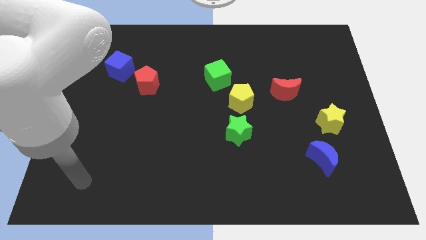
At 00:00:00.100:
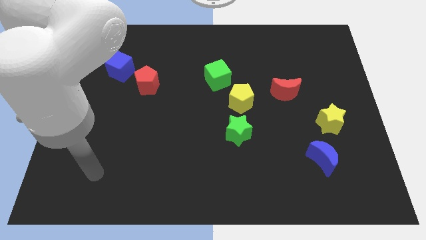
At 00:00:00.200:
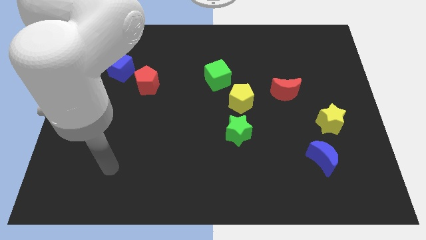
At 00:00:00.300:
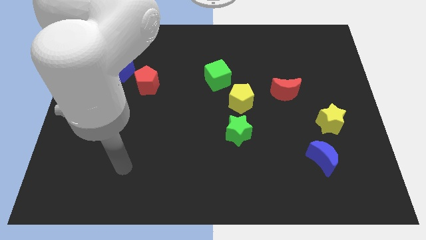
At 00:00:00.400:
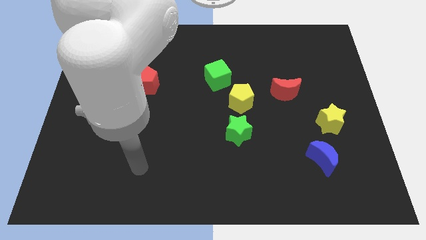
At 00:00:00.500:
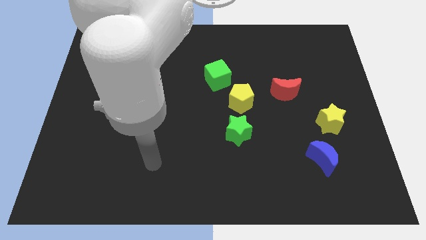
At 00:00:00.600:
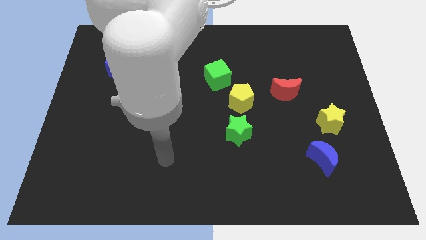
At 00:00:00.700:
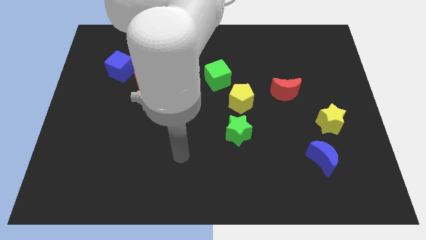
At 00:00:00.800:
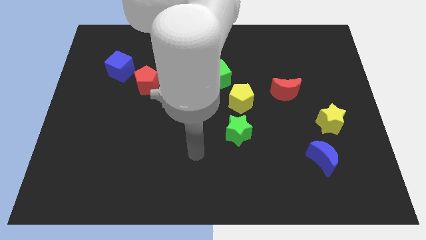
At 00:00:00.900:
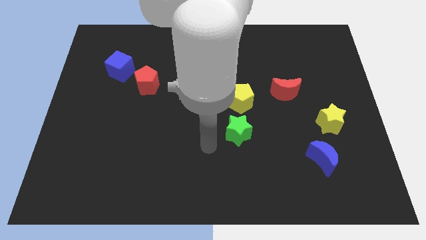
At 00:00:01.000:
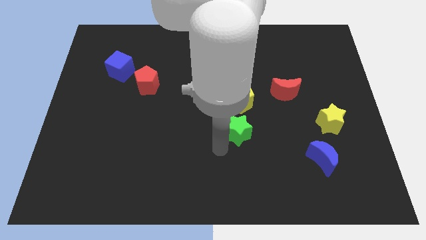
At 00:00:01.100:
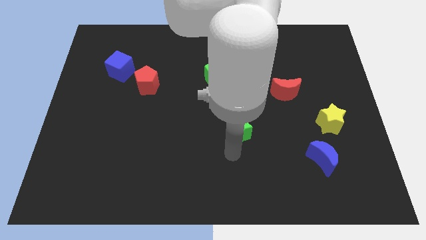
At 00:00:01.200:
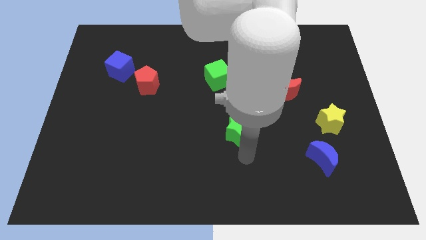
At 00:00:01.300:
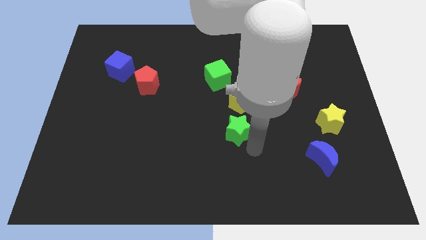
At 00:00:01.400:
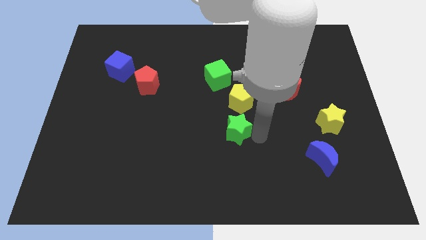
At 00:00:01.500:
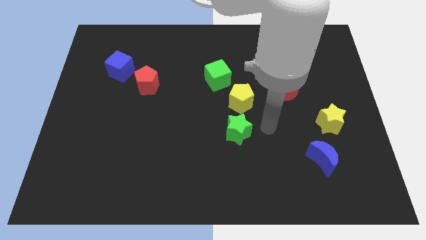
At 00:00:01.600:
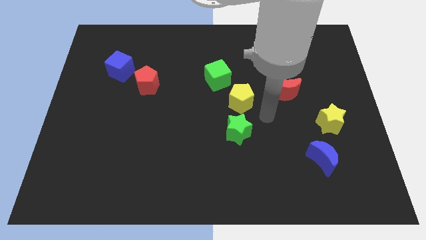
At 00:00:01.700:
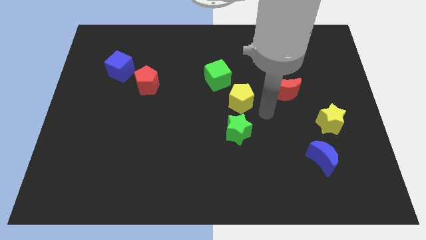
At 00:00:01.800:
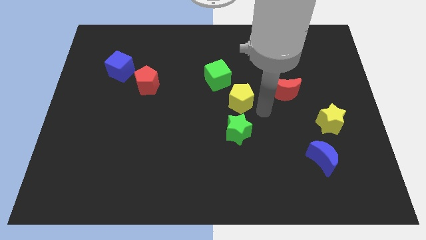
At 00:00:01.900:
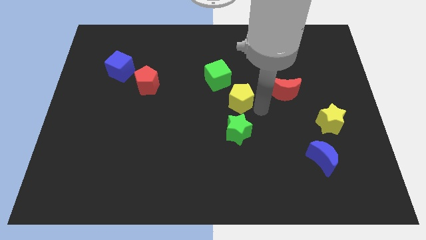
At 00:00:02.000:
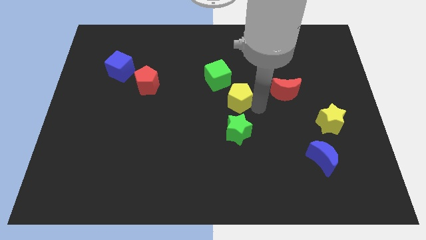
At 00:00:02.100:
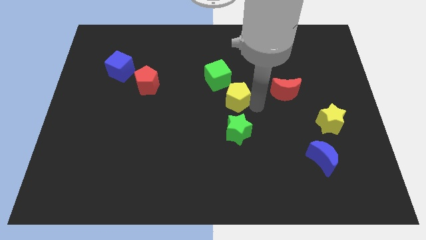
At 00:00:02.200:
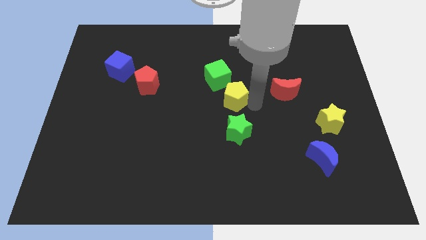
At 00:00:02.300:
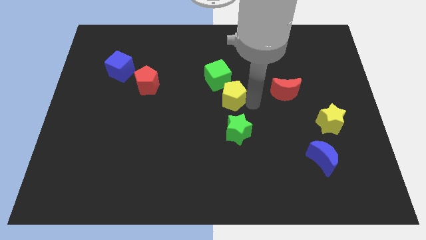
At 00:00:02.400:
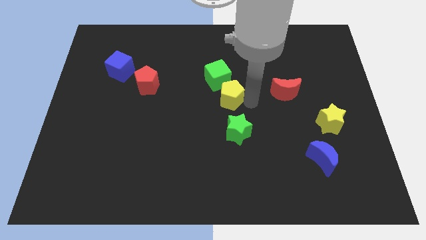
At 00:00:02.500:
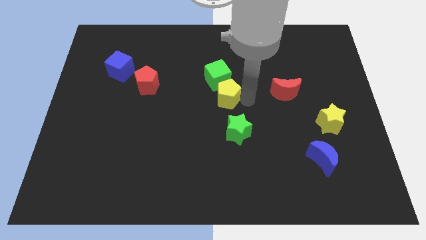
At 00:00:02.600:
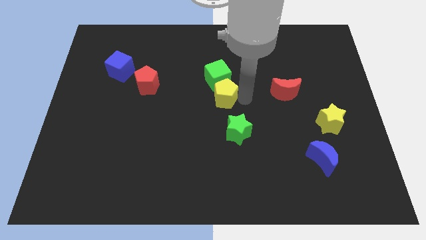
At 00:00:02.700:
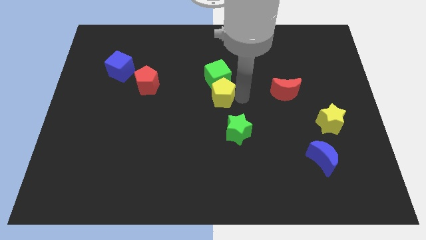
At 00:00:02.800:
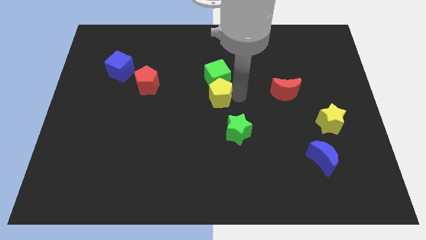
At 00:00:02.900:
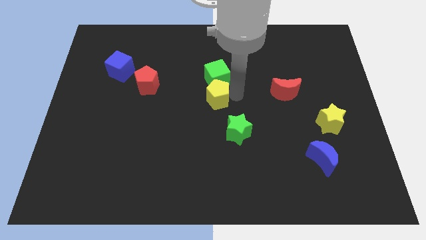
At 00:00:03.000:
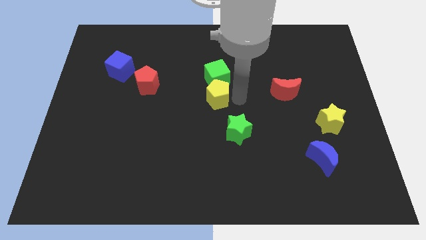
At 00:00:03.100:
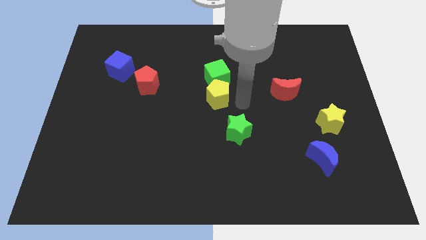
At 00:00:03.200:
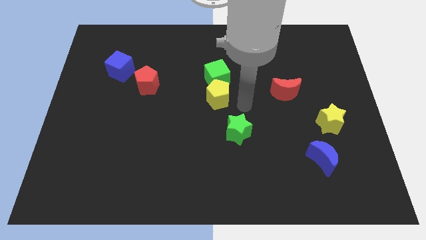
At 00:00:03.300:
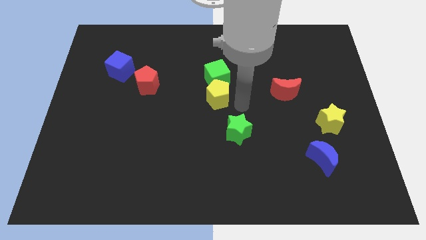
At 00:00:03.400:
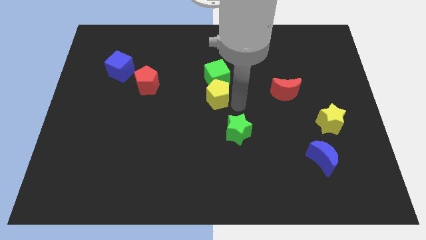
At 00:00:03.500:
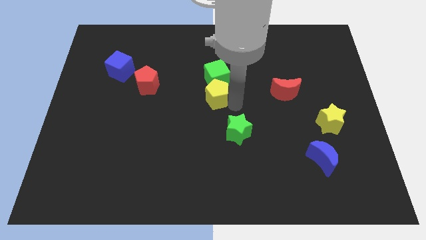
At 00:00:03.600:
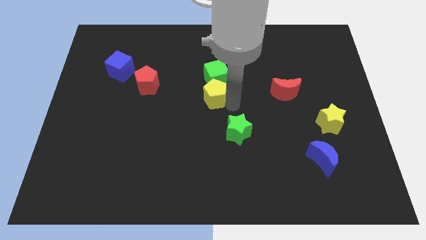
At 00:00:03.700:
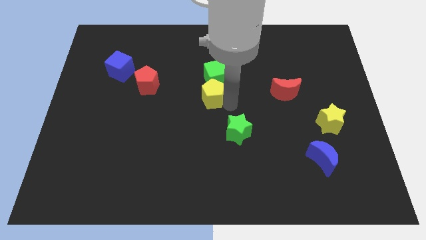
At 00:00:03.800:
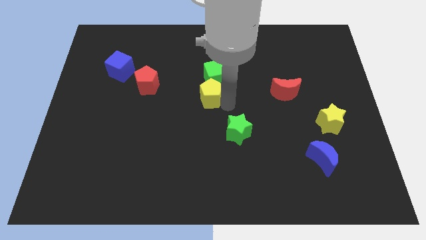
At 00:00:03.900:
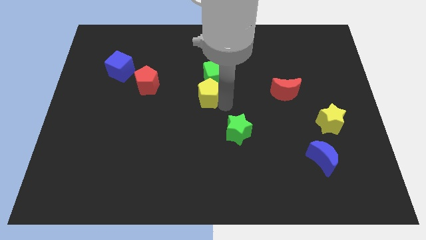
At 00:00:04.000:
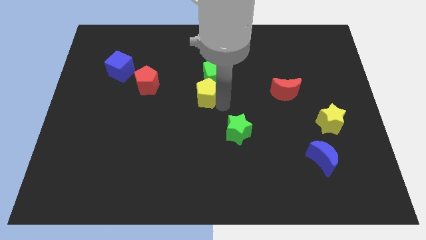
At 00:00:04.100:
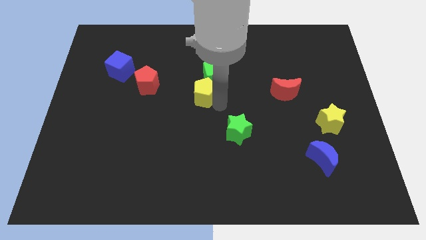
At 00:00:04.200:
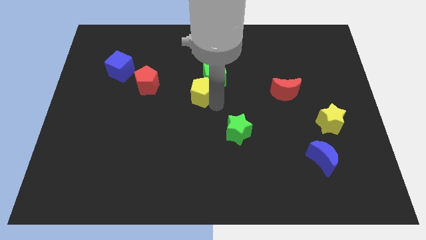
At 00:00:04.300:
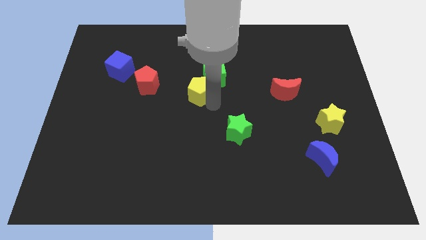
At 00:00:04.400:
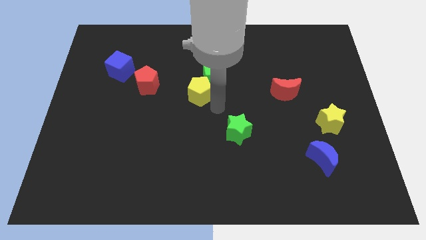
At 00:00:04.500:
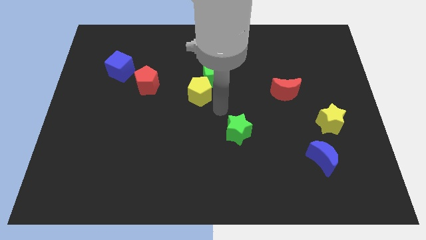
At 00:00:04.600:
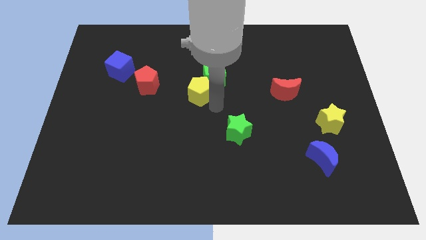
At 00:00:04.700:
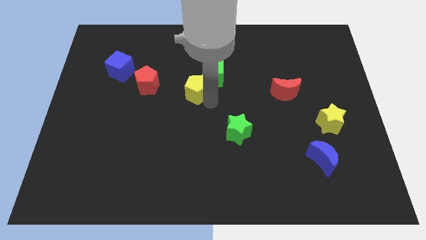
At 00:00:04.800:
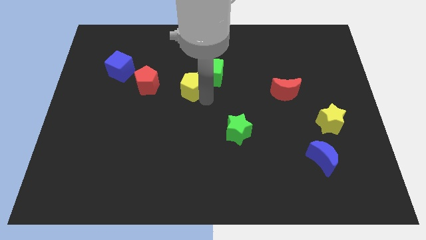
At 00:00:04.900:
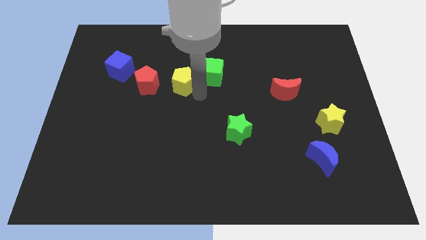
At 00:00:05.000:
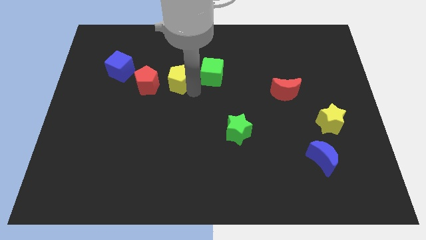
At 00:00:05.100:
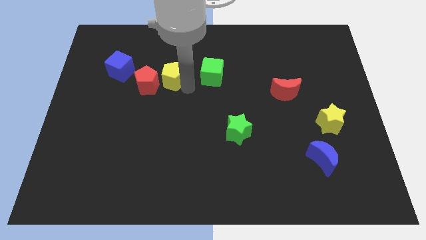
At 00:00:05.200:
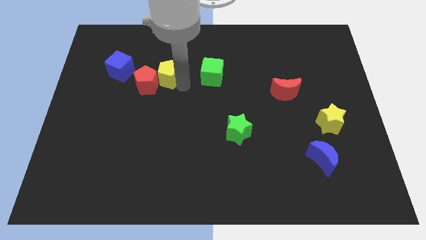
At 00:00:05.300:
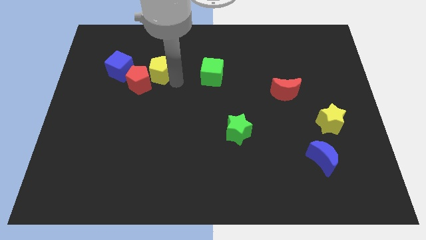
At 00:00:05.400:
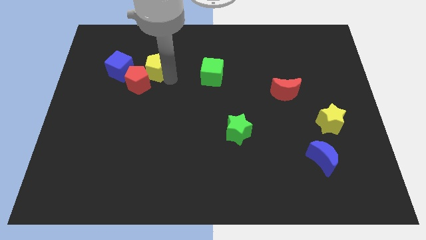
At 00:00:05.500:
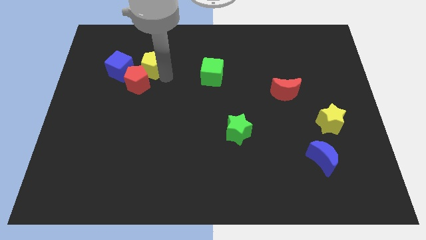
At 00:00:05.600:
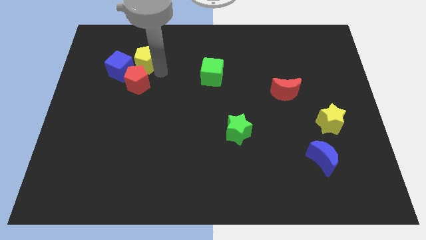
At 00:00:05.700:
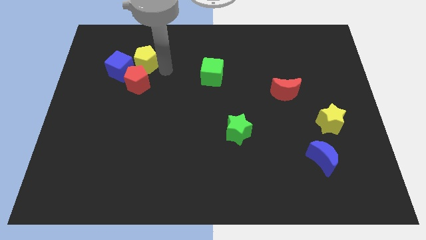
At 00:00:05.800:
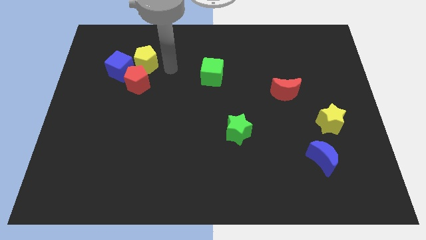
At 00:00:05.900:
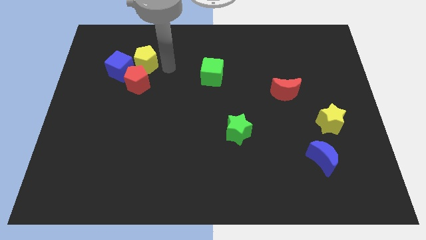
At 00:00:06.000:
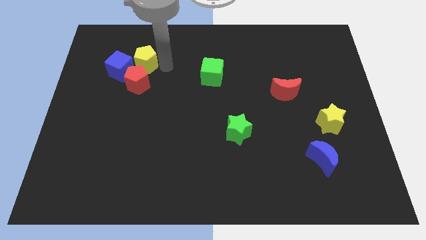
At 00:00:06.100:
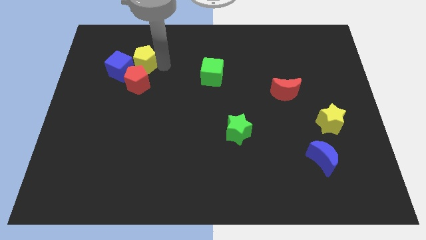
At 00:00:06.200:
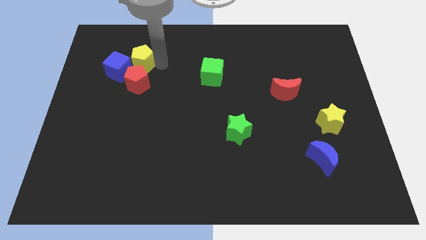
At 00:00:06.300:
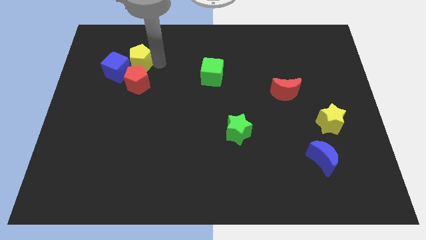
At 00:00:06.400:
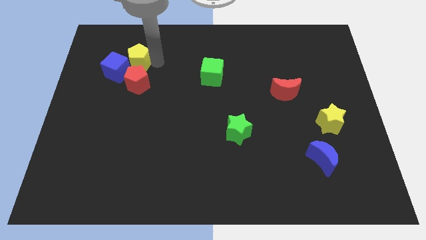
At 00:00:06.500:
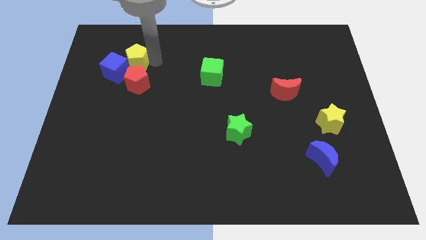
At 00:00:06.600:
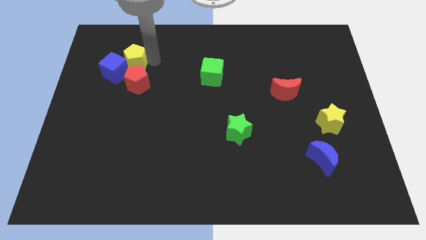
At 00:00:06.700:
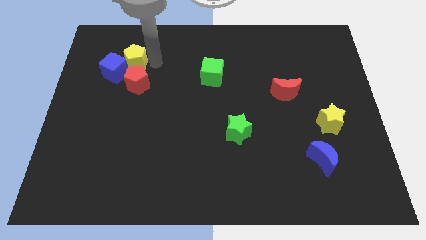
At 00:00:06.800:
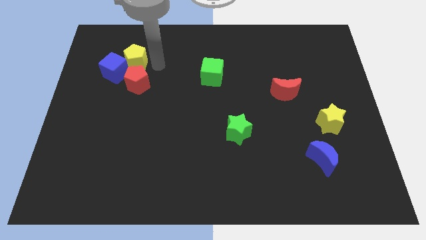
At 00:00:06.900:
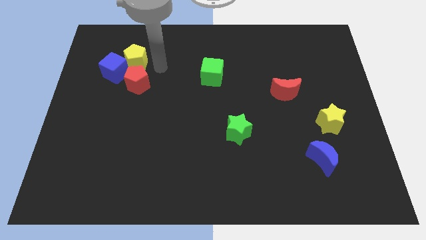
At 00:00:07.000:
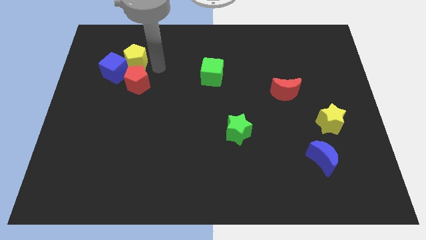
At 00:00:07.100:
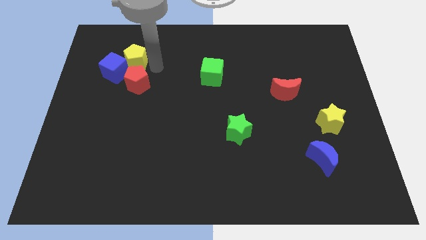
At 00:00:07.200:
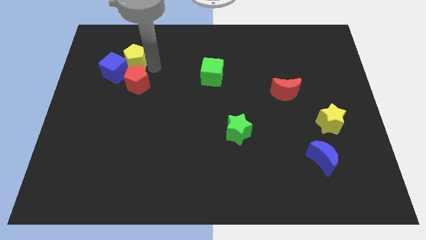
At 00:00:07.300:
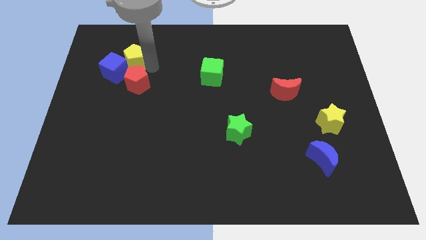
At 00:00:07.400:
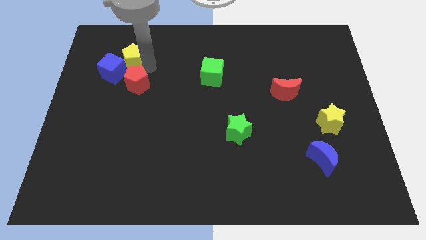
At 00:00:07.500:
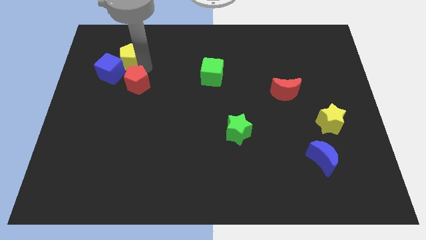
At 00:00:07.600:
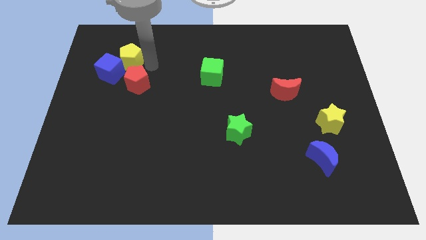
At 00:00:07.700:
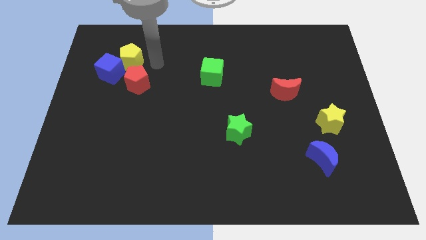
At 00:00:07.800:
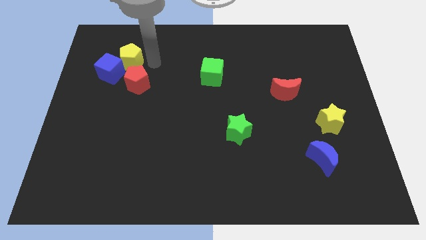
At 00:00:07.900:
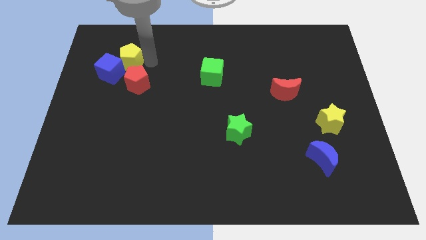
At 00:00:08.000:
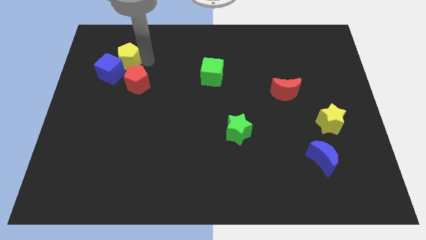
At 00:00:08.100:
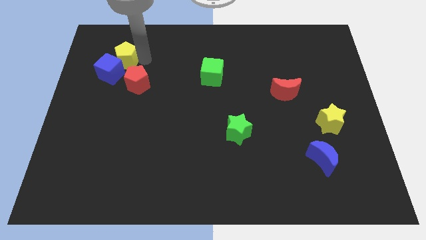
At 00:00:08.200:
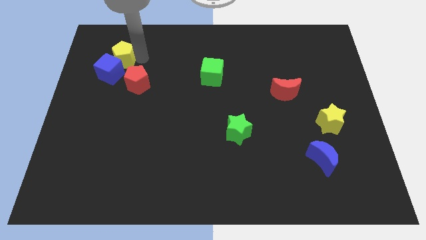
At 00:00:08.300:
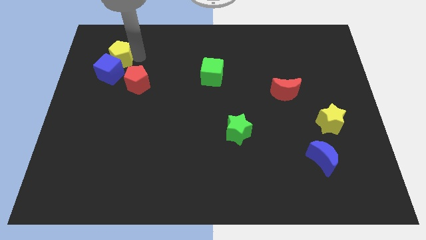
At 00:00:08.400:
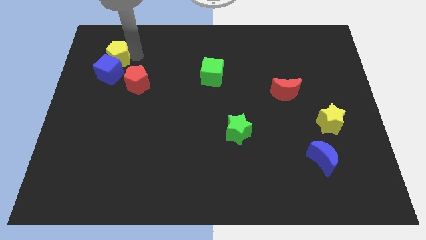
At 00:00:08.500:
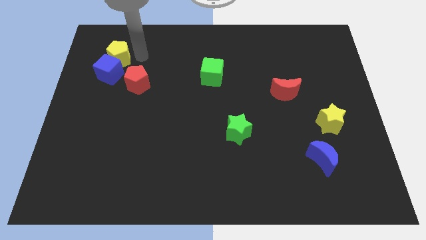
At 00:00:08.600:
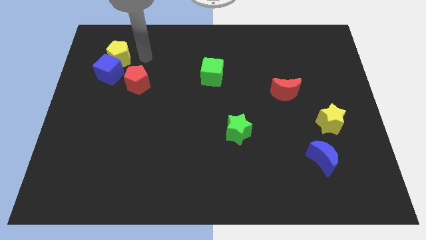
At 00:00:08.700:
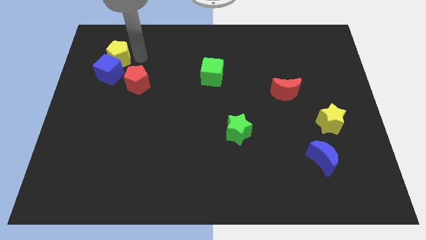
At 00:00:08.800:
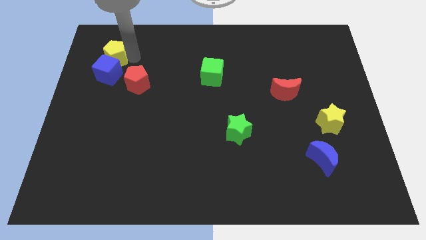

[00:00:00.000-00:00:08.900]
slide the yellow pentagon to the top left side of the blue cube
